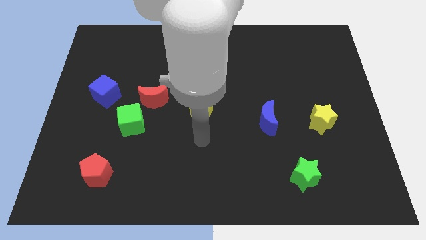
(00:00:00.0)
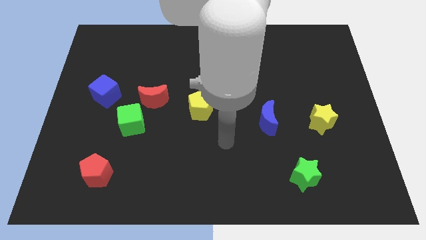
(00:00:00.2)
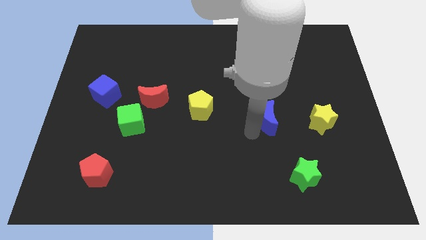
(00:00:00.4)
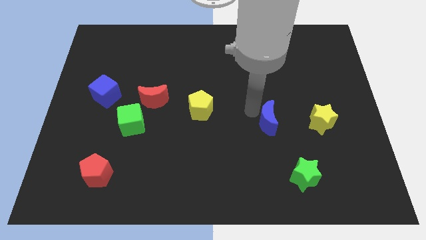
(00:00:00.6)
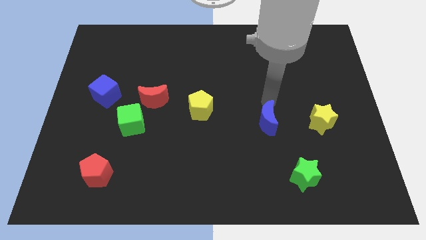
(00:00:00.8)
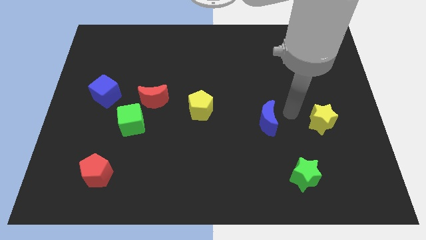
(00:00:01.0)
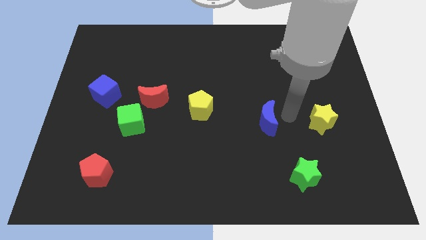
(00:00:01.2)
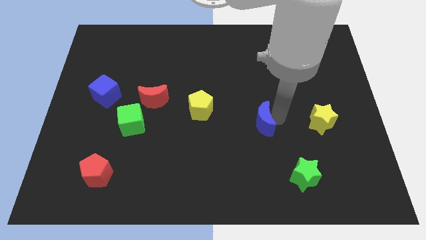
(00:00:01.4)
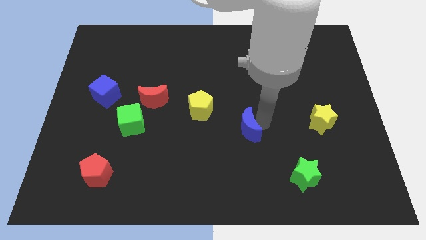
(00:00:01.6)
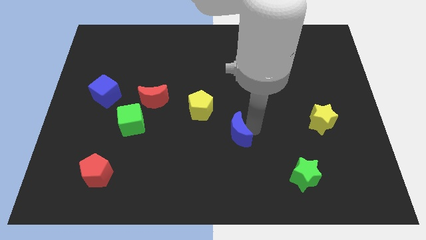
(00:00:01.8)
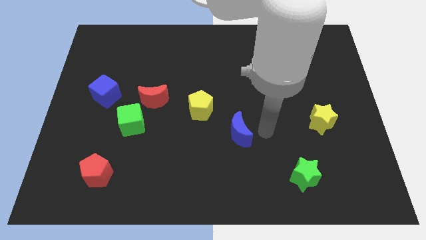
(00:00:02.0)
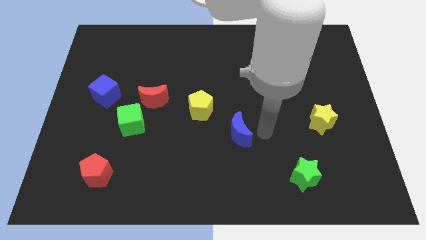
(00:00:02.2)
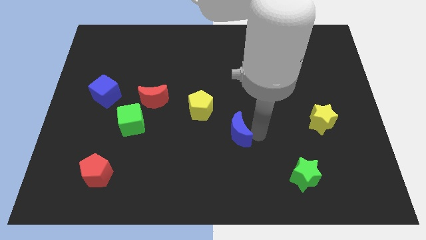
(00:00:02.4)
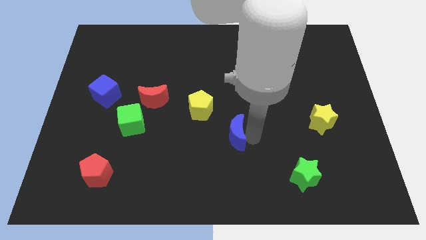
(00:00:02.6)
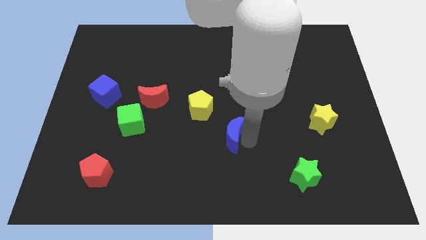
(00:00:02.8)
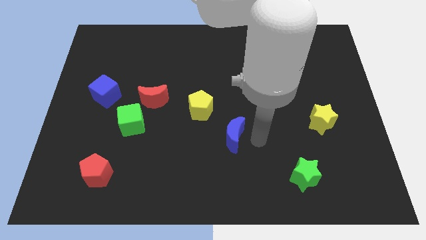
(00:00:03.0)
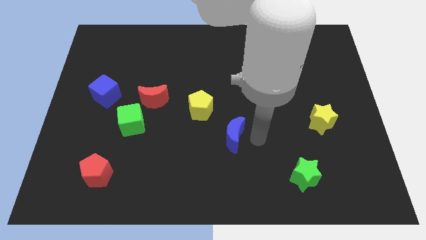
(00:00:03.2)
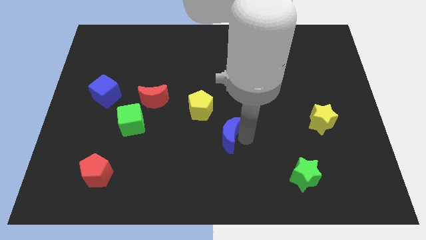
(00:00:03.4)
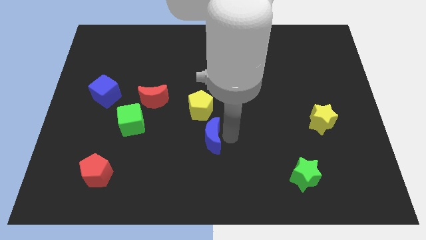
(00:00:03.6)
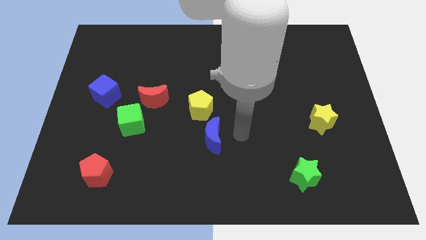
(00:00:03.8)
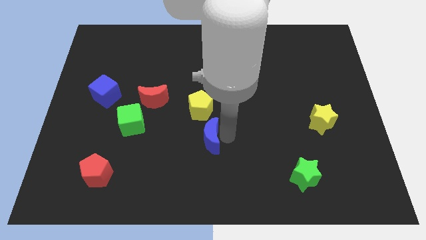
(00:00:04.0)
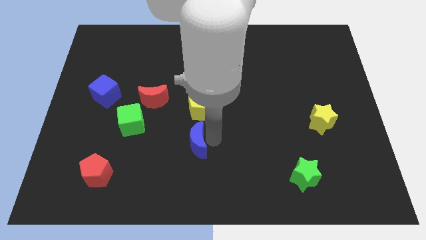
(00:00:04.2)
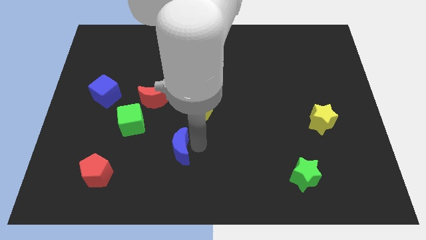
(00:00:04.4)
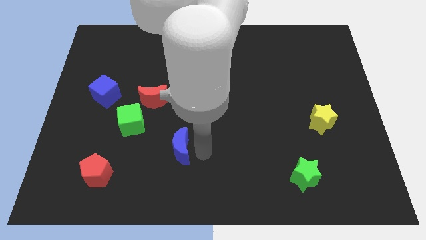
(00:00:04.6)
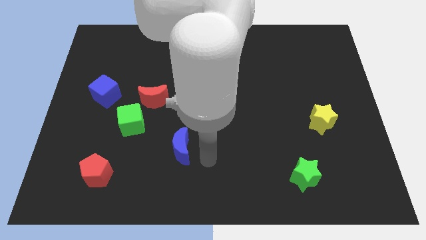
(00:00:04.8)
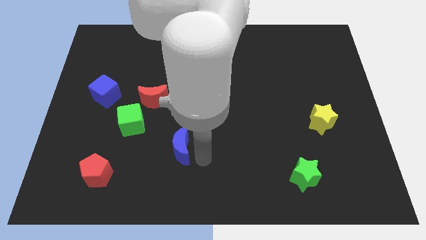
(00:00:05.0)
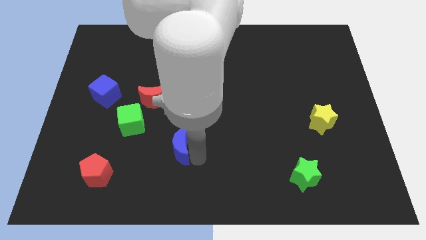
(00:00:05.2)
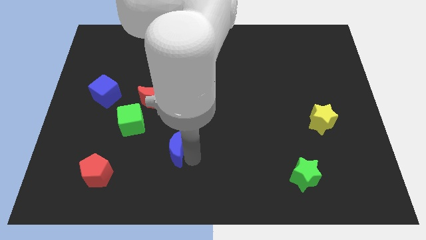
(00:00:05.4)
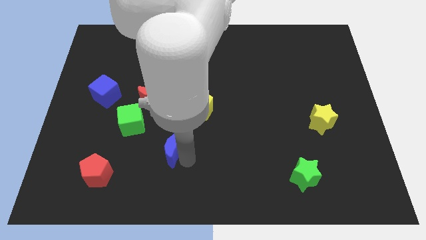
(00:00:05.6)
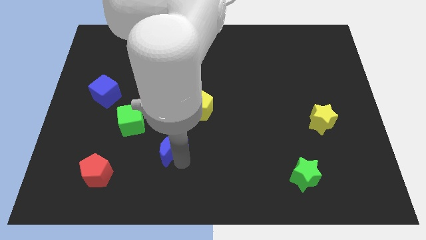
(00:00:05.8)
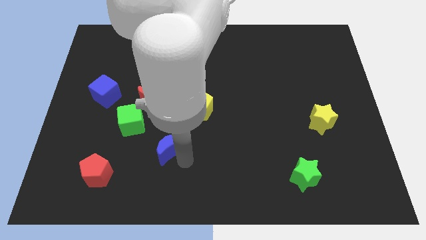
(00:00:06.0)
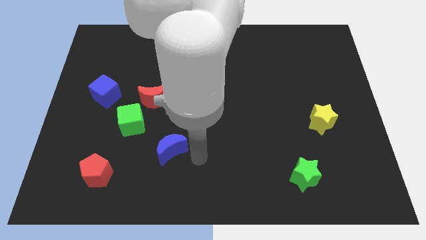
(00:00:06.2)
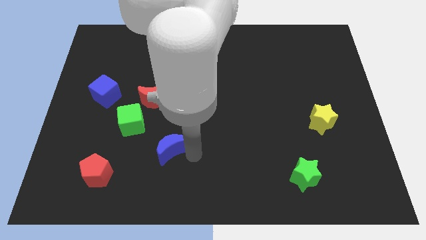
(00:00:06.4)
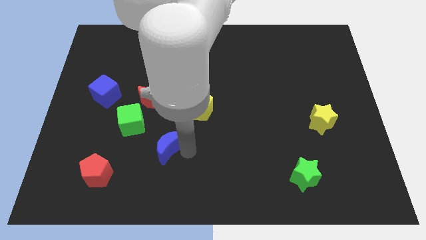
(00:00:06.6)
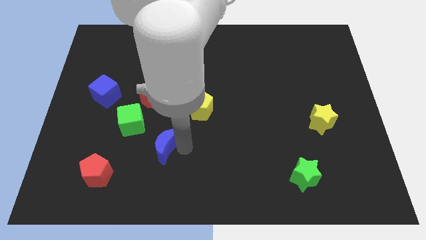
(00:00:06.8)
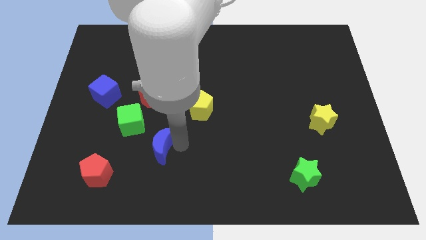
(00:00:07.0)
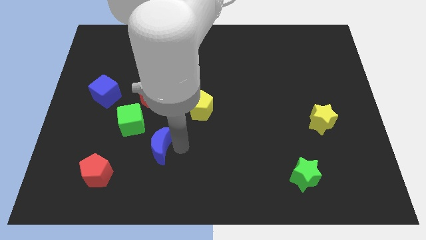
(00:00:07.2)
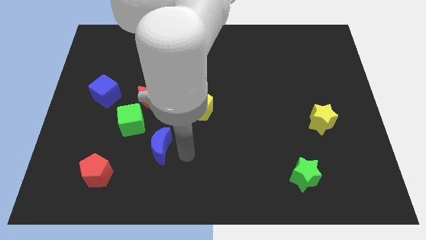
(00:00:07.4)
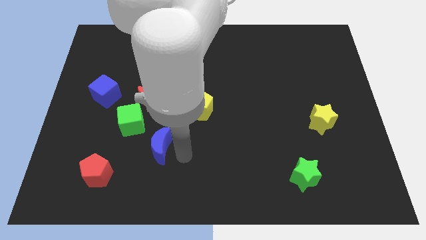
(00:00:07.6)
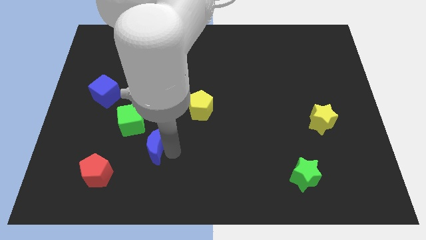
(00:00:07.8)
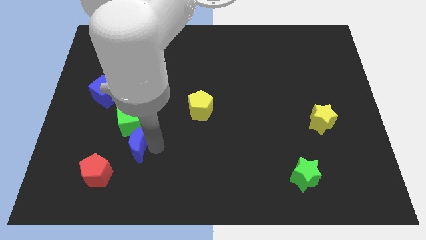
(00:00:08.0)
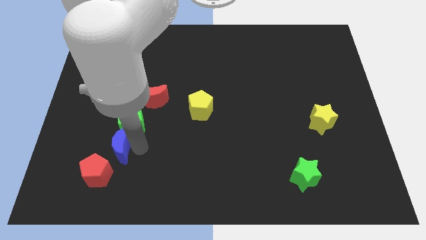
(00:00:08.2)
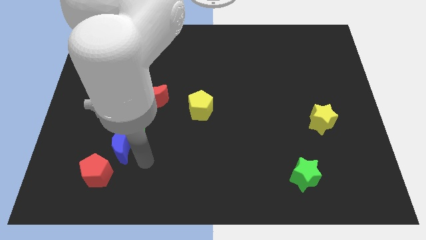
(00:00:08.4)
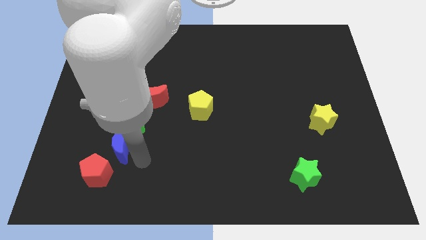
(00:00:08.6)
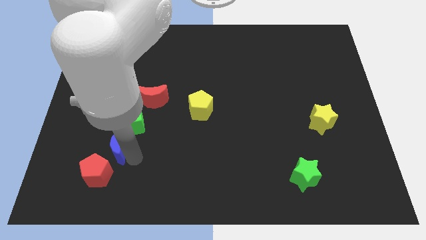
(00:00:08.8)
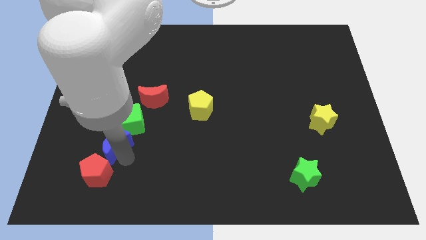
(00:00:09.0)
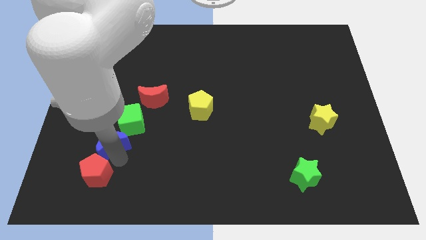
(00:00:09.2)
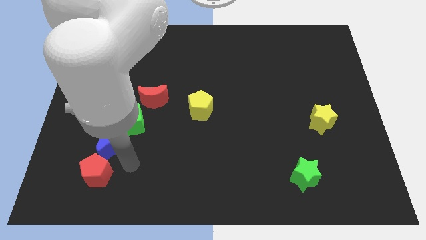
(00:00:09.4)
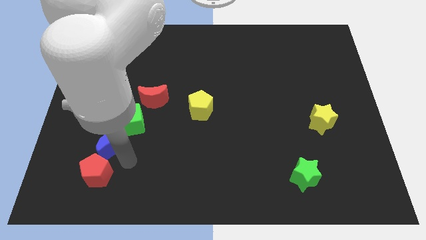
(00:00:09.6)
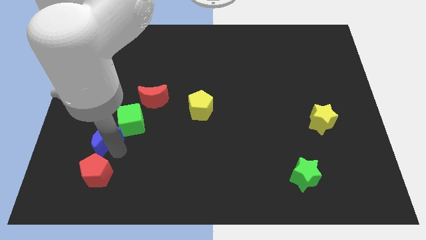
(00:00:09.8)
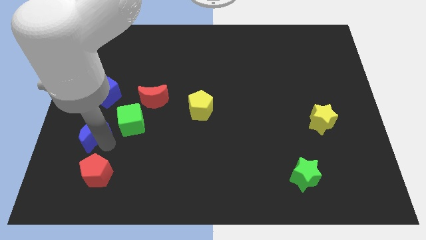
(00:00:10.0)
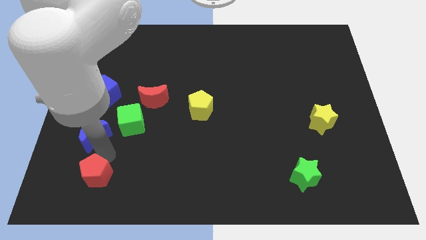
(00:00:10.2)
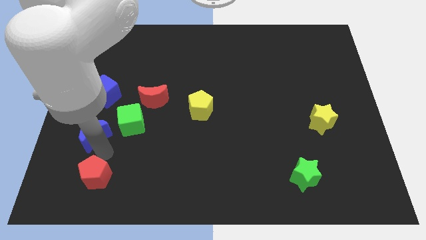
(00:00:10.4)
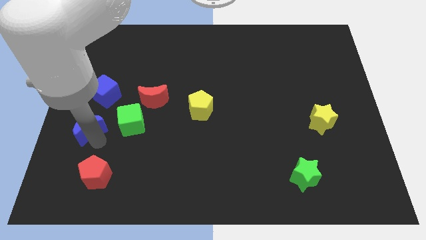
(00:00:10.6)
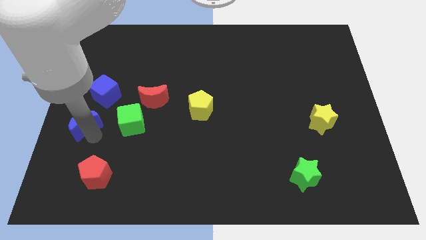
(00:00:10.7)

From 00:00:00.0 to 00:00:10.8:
move the blue moon to the left side of the board
